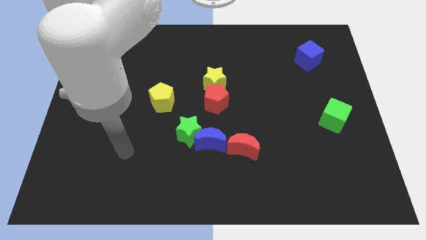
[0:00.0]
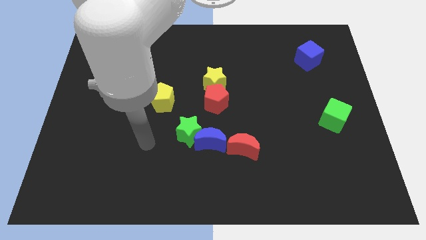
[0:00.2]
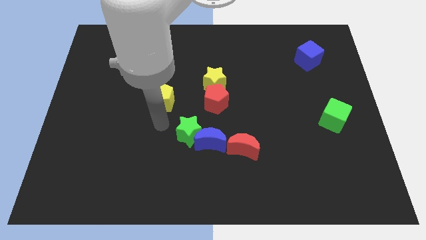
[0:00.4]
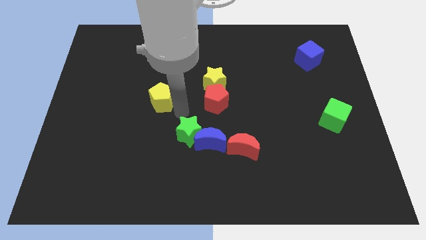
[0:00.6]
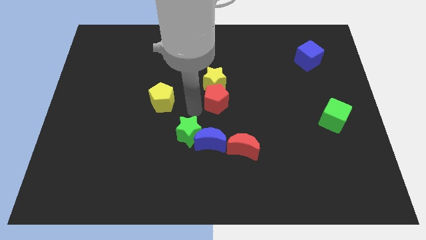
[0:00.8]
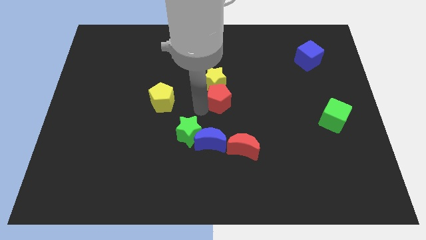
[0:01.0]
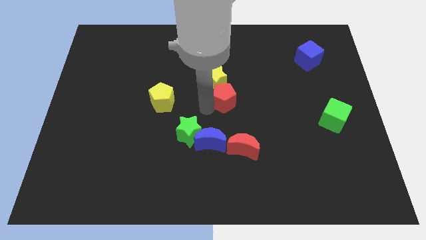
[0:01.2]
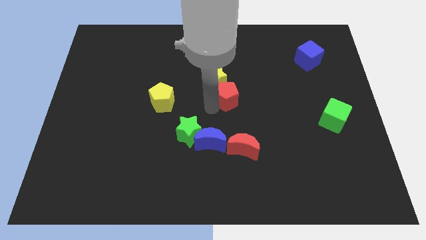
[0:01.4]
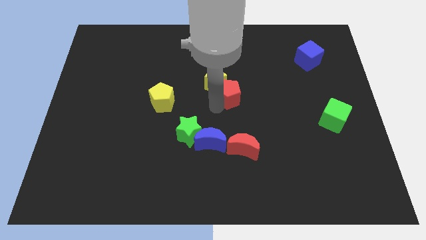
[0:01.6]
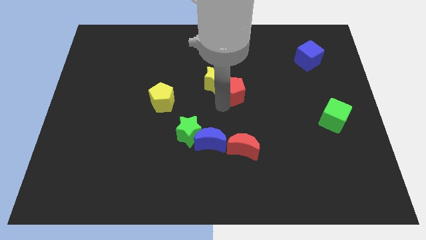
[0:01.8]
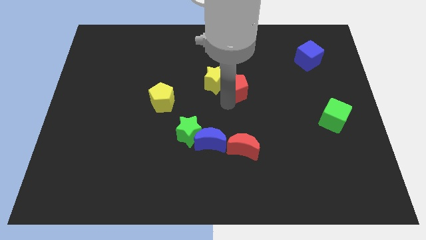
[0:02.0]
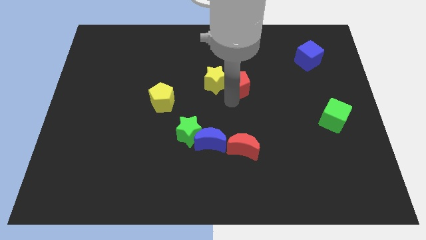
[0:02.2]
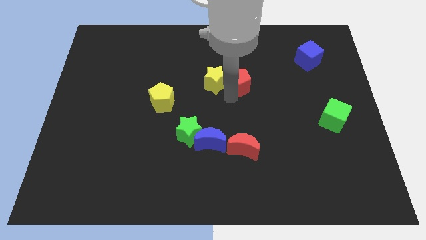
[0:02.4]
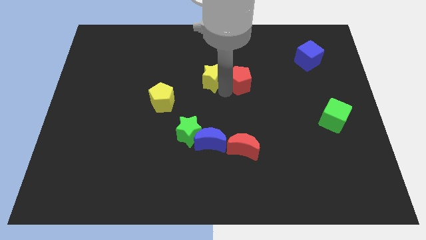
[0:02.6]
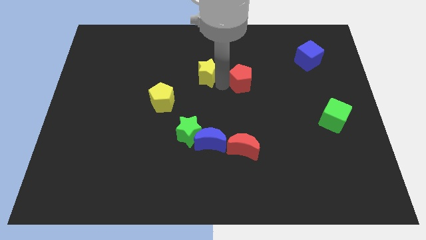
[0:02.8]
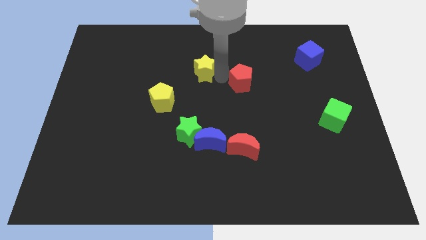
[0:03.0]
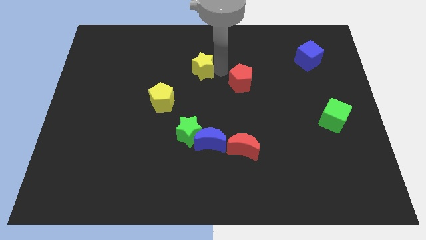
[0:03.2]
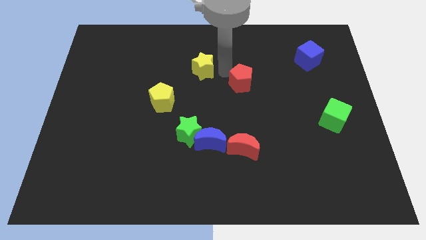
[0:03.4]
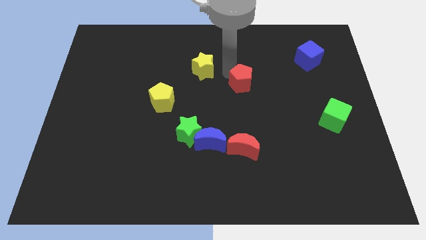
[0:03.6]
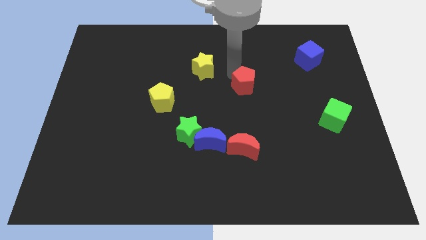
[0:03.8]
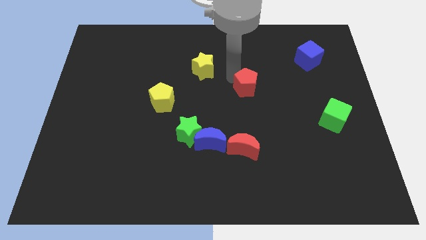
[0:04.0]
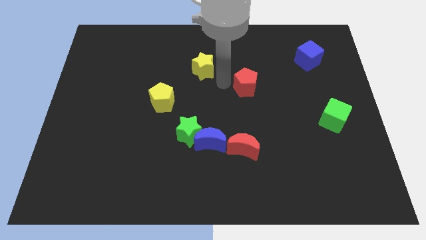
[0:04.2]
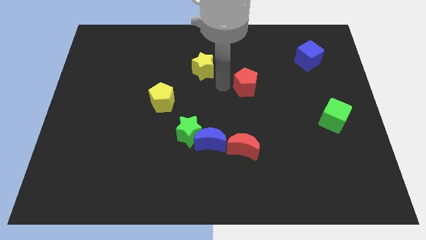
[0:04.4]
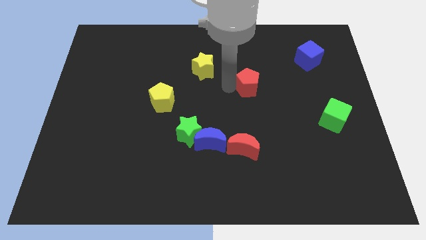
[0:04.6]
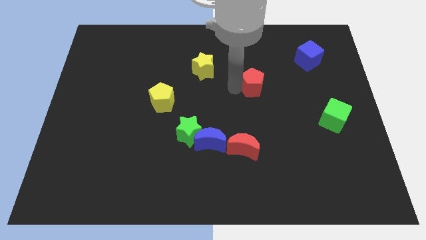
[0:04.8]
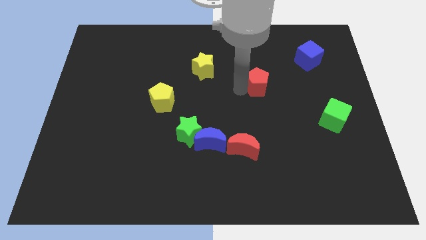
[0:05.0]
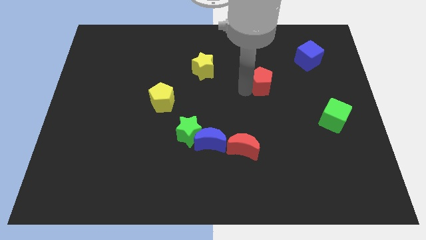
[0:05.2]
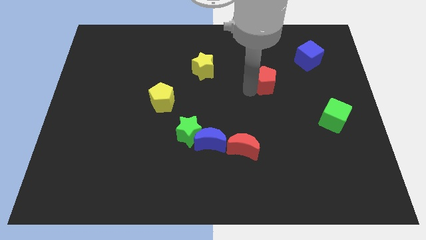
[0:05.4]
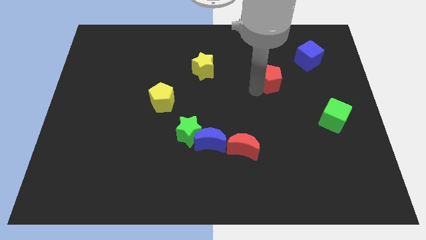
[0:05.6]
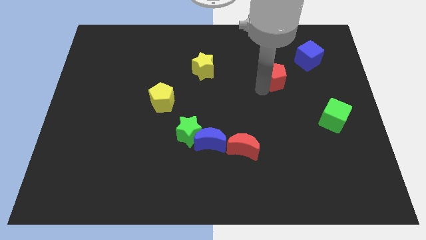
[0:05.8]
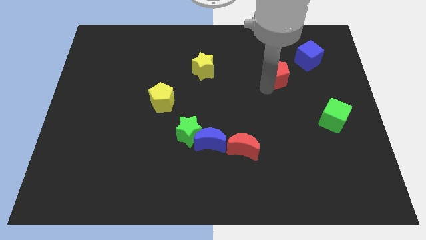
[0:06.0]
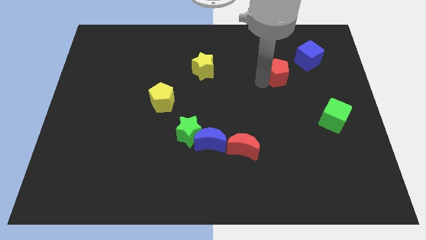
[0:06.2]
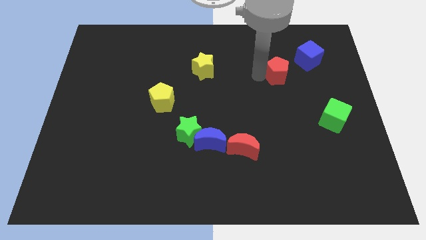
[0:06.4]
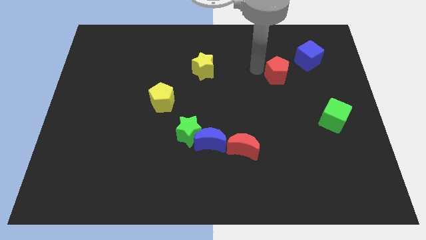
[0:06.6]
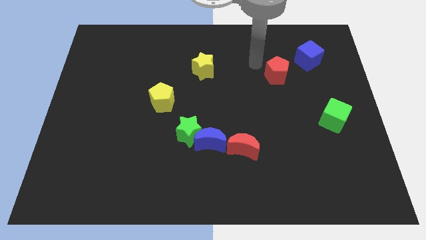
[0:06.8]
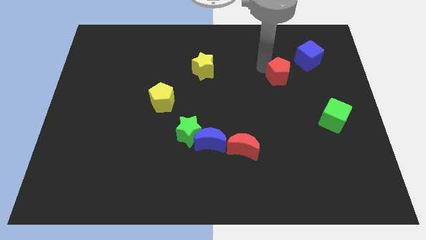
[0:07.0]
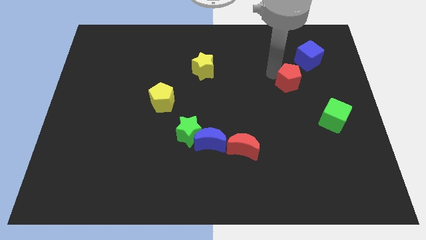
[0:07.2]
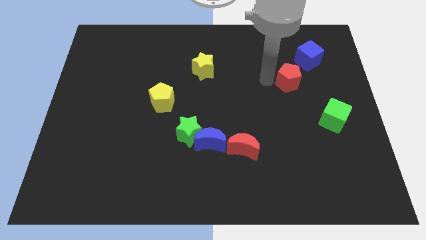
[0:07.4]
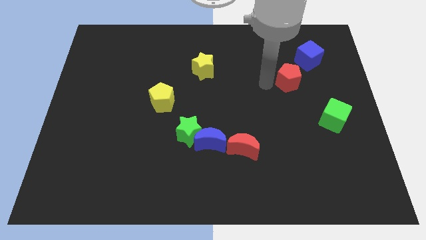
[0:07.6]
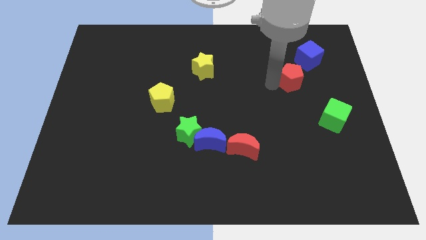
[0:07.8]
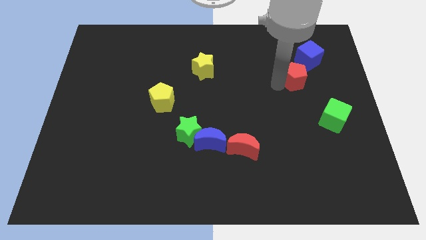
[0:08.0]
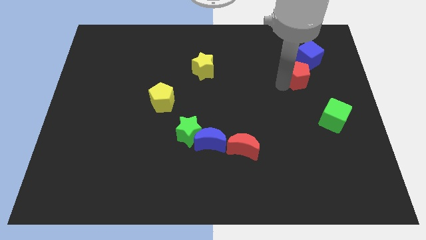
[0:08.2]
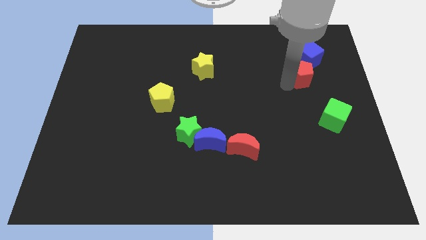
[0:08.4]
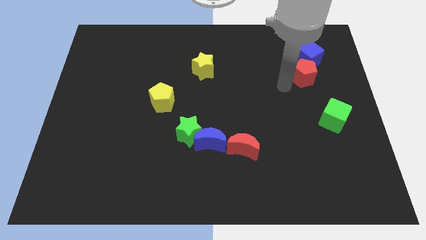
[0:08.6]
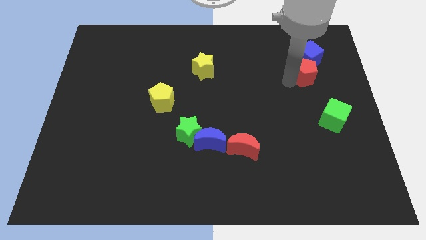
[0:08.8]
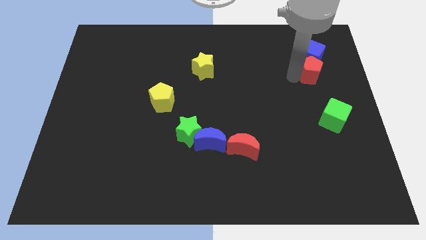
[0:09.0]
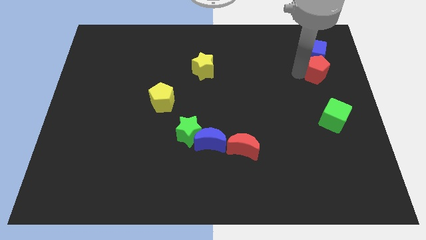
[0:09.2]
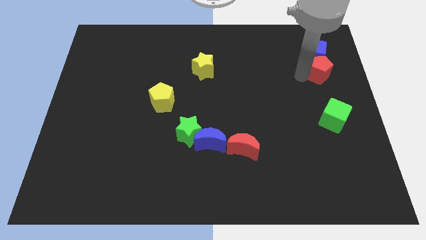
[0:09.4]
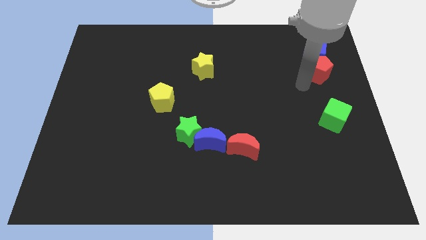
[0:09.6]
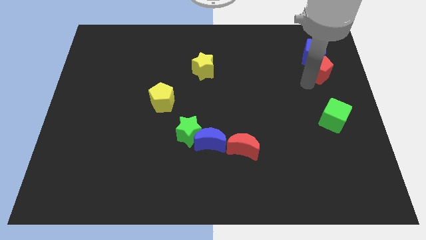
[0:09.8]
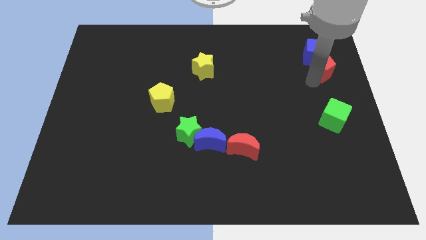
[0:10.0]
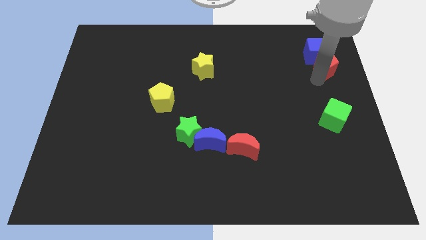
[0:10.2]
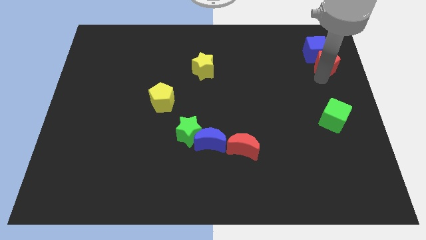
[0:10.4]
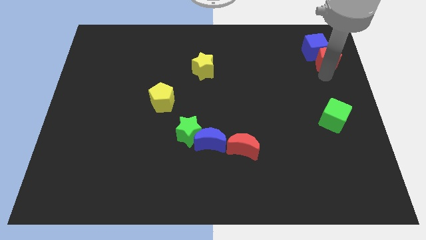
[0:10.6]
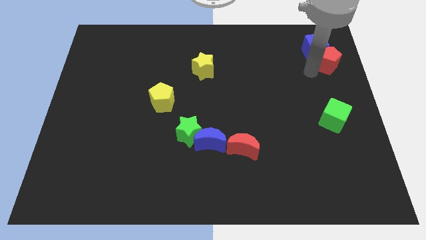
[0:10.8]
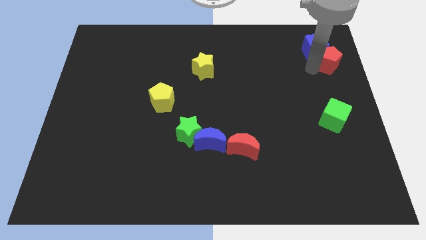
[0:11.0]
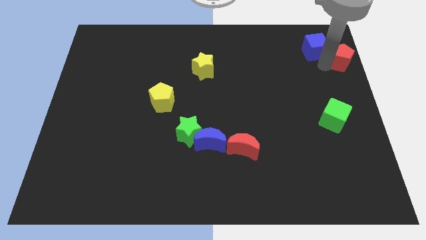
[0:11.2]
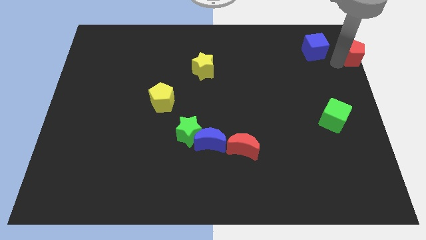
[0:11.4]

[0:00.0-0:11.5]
put the red pentagon to the top right
